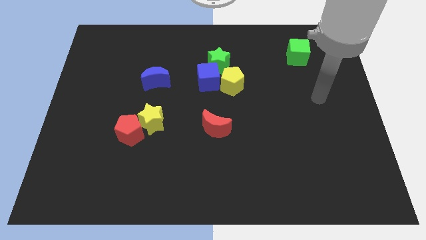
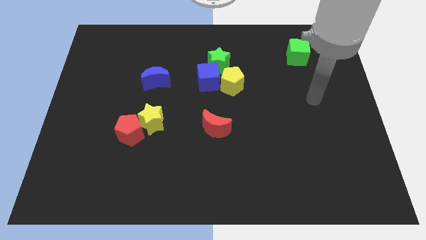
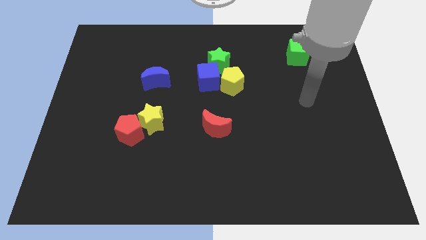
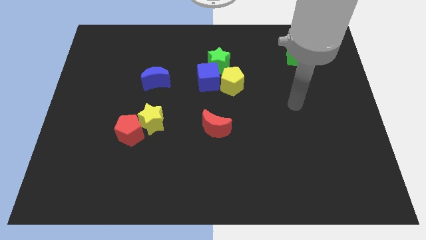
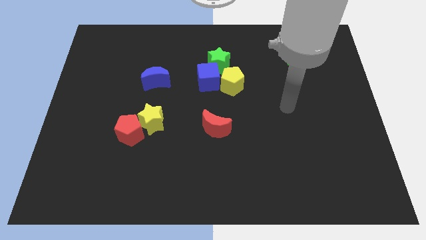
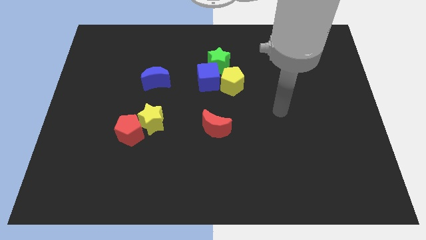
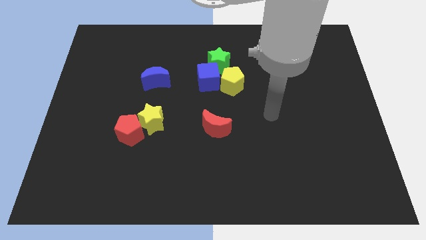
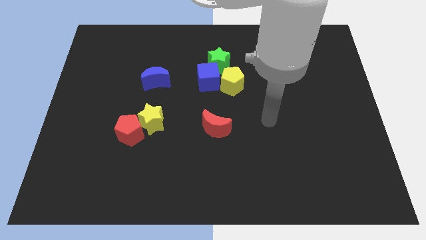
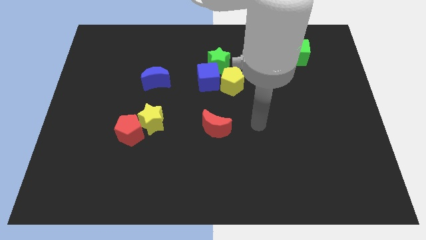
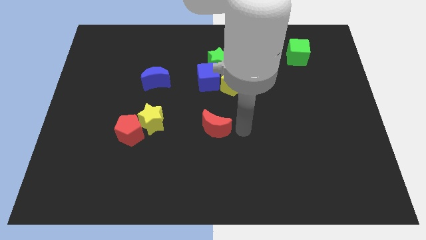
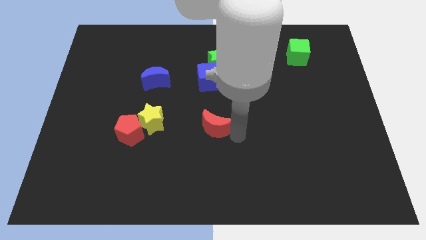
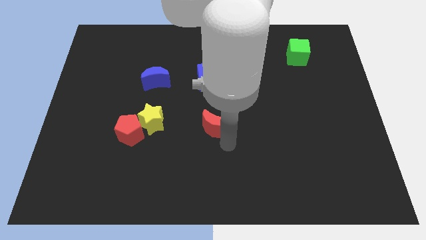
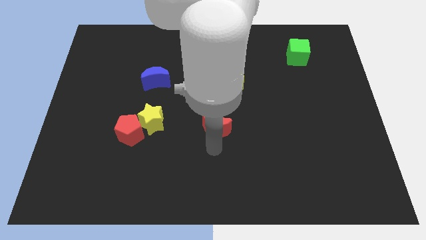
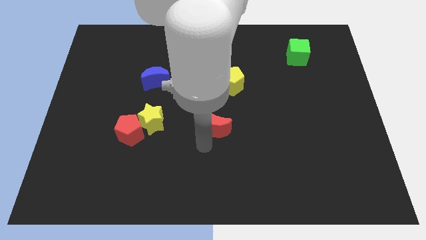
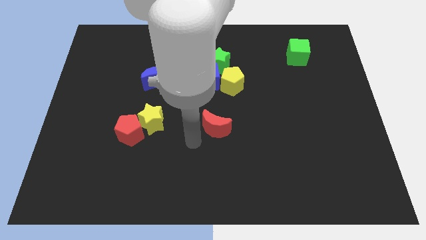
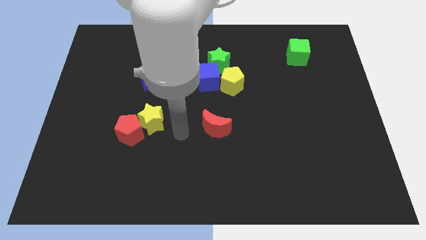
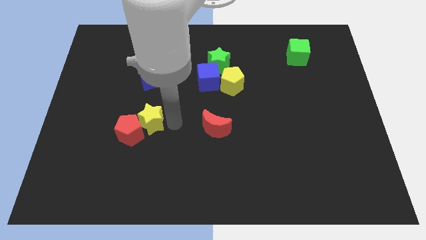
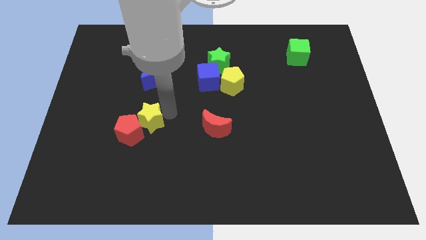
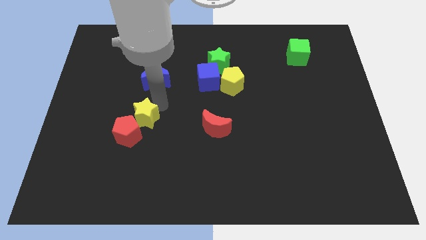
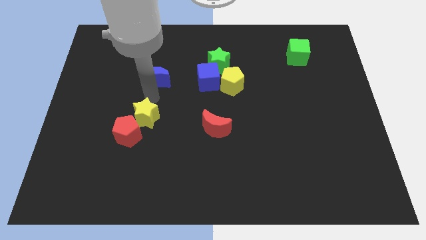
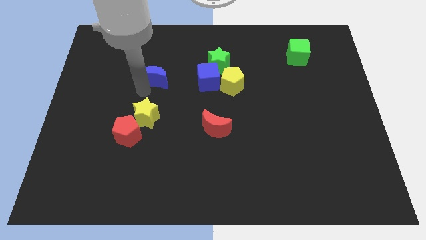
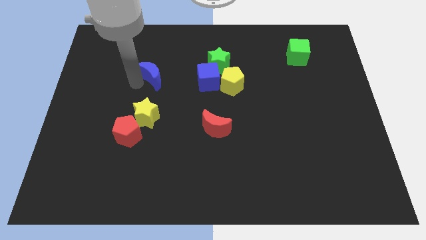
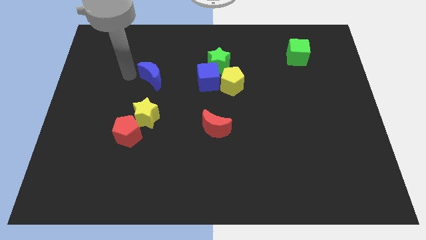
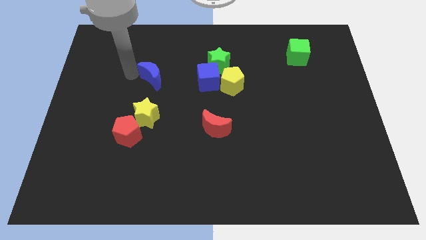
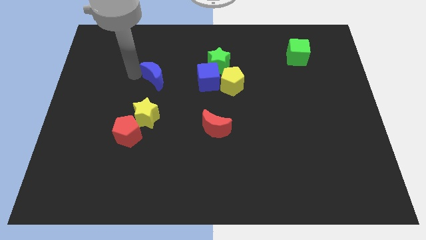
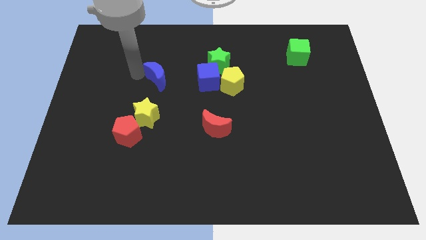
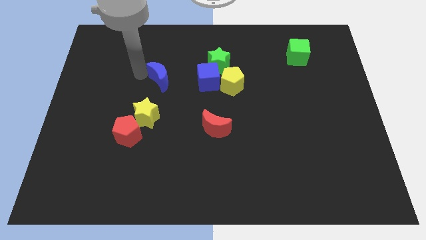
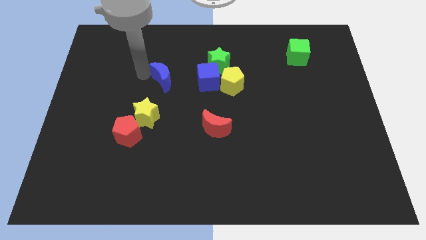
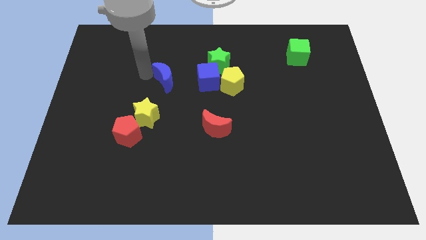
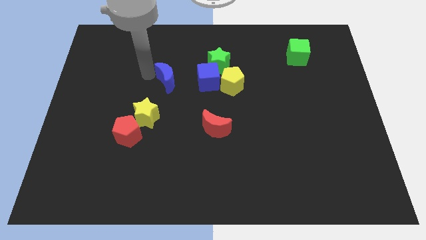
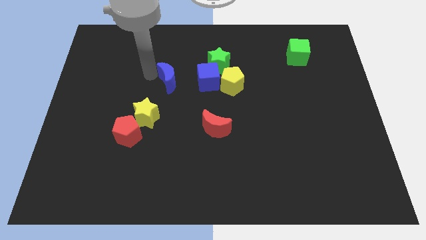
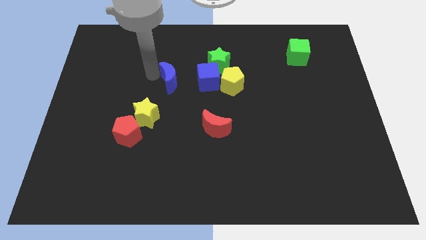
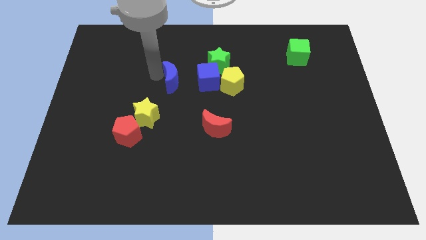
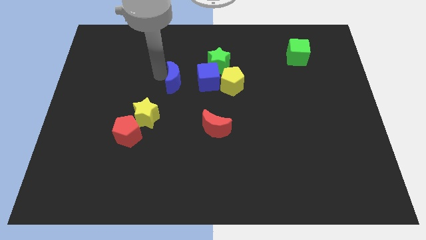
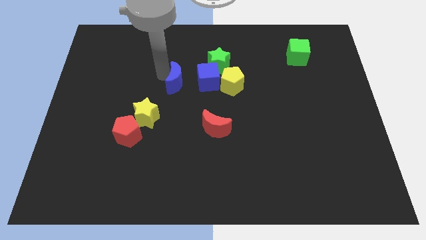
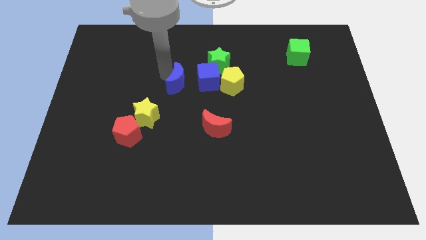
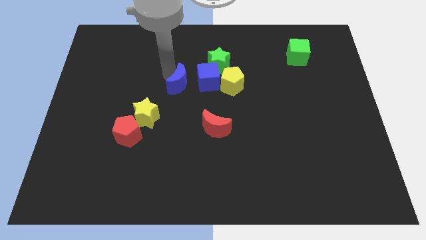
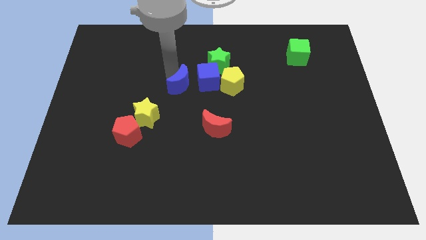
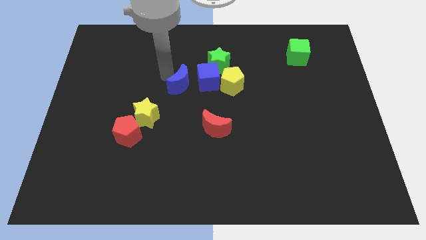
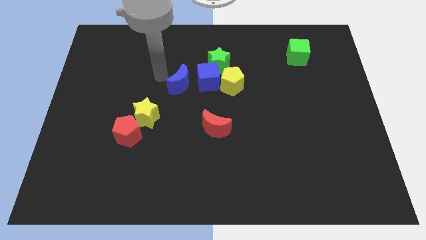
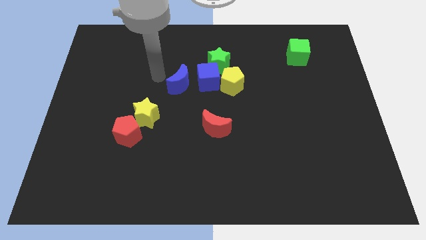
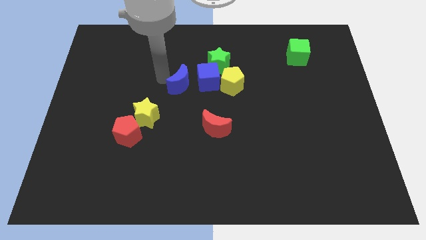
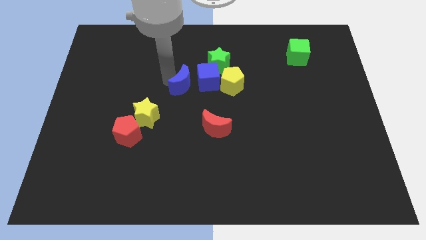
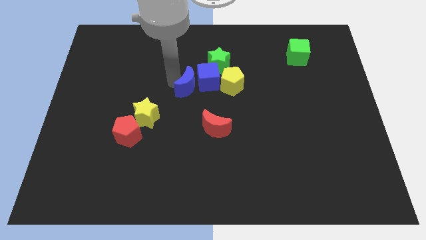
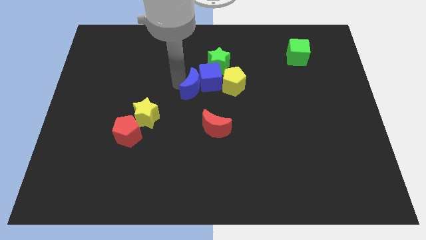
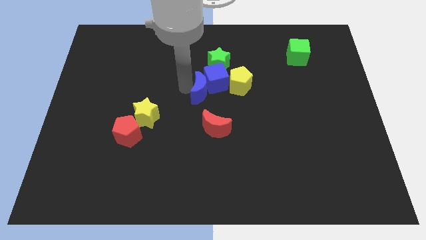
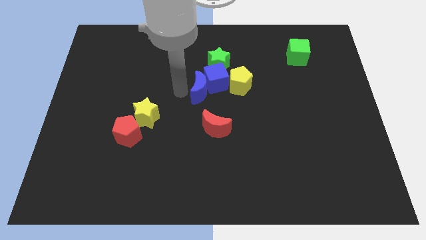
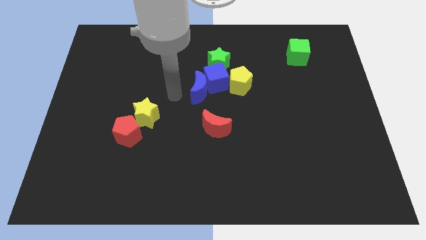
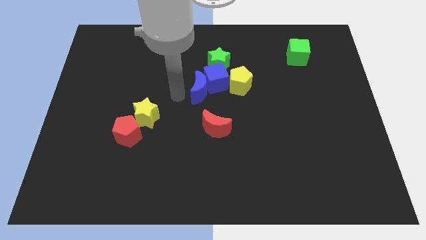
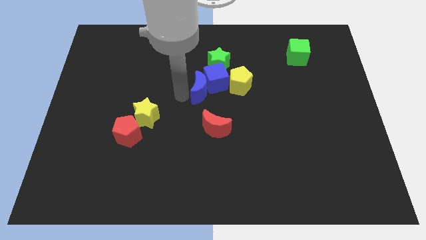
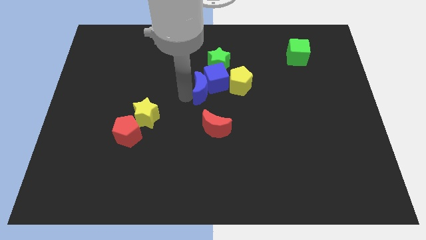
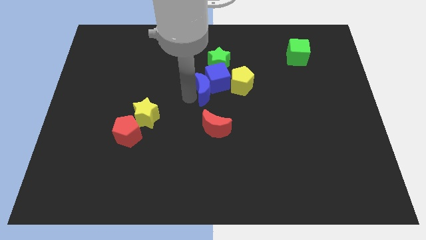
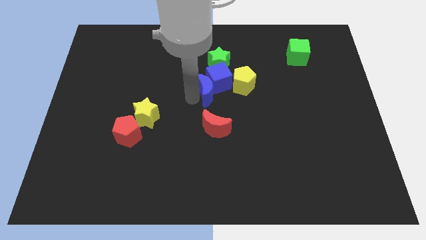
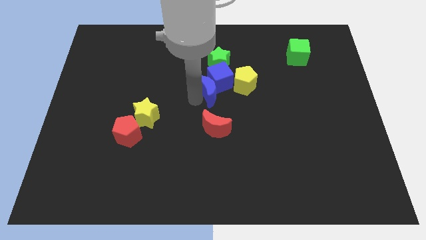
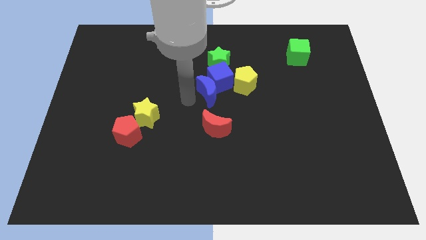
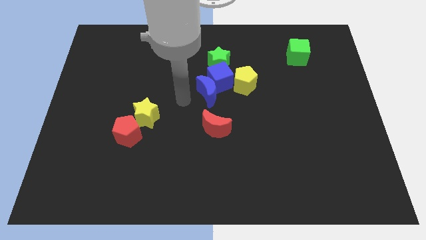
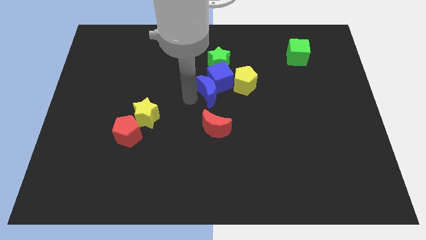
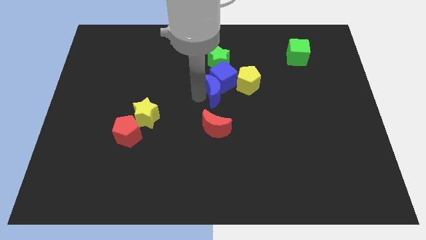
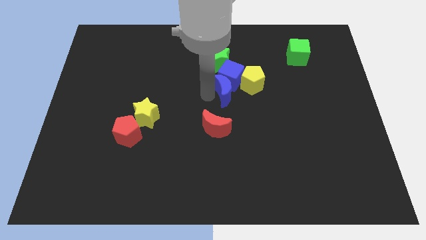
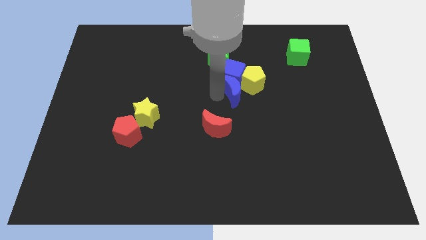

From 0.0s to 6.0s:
move the blue moon next to the yellow pentagon

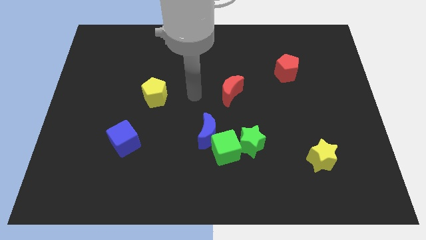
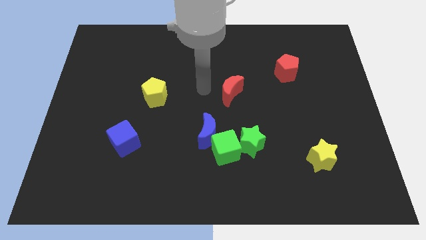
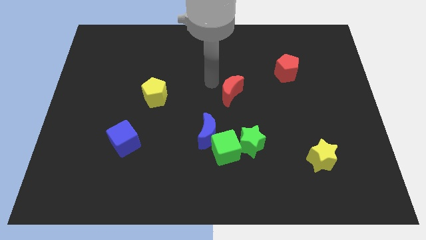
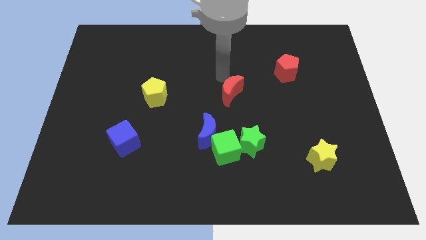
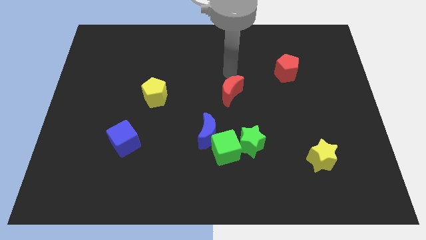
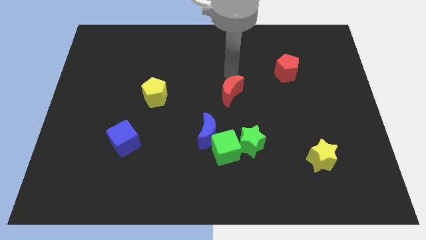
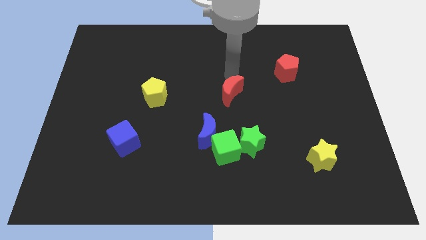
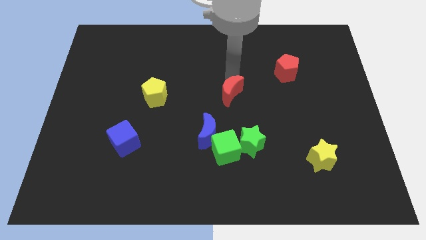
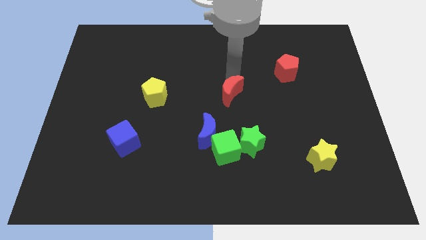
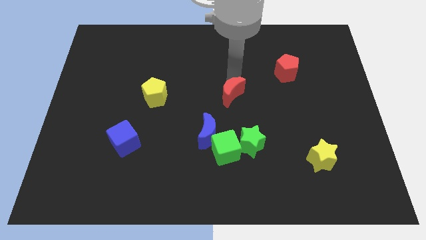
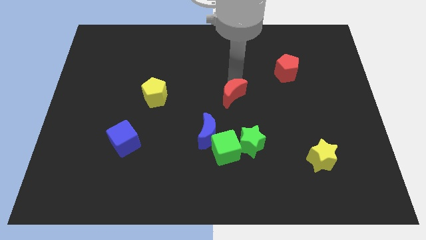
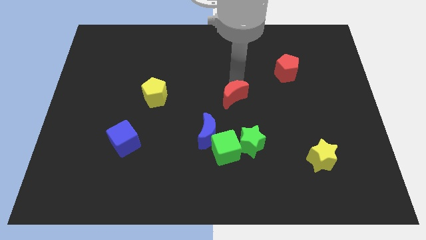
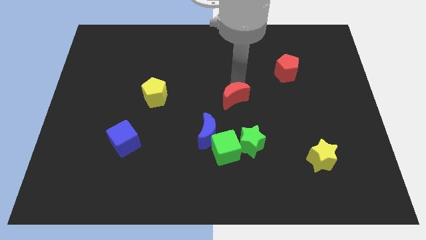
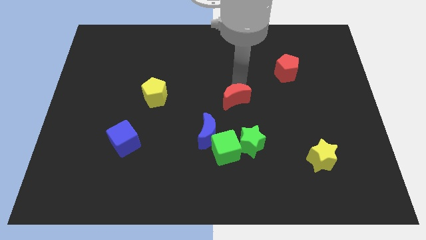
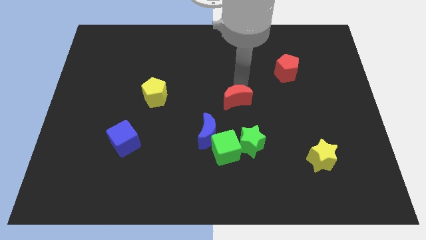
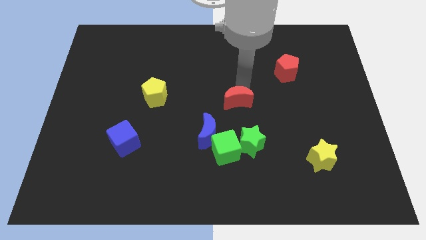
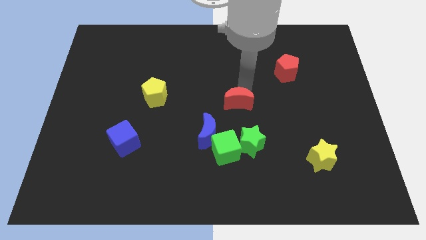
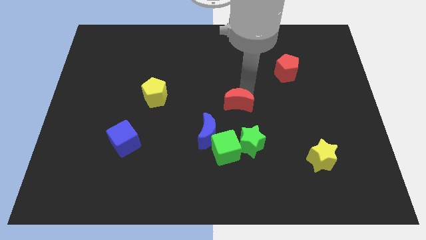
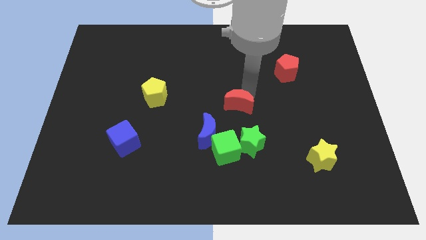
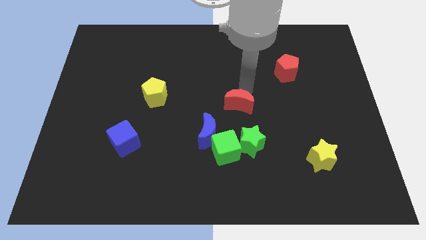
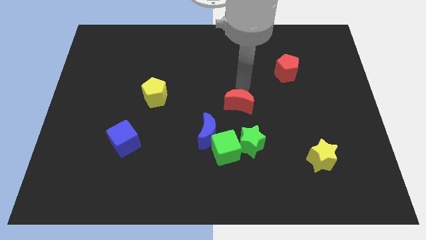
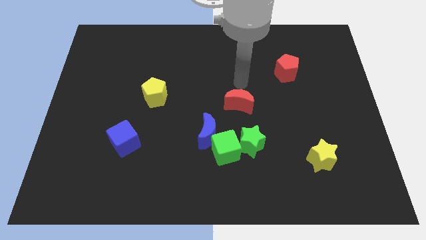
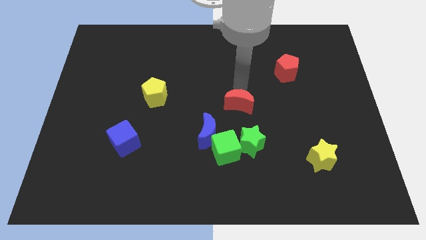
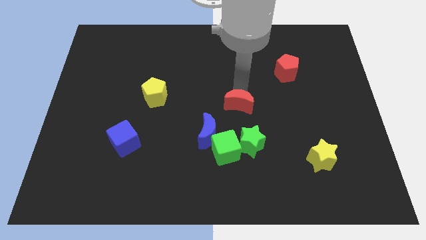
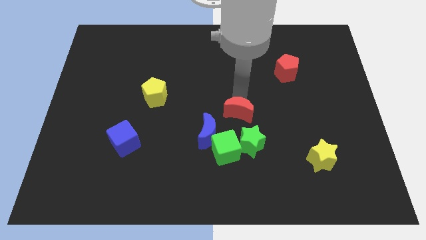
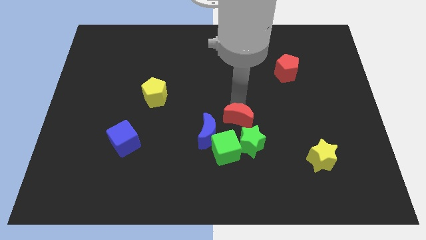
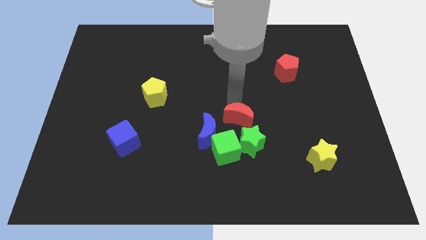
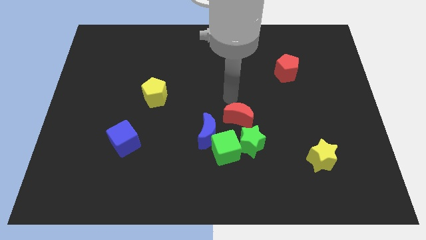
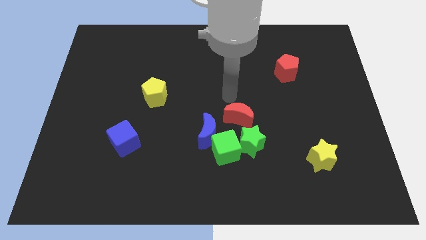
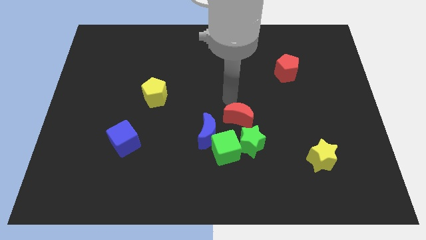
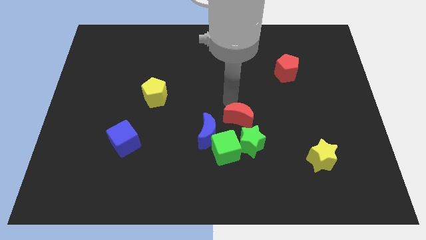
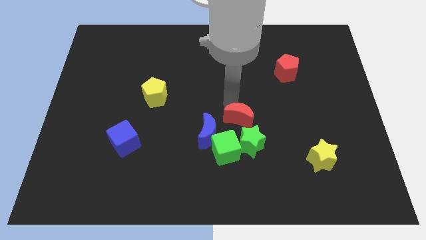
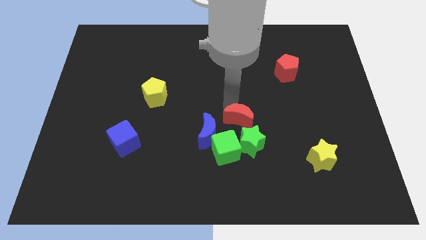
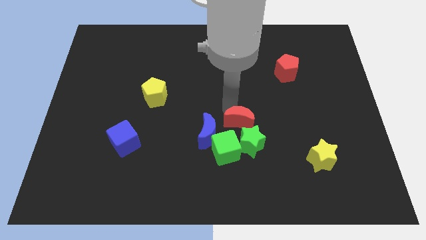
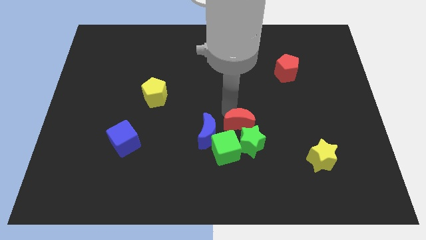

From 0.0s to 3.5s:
push the red moon close to the green star
